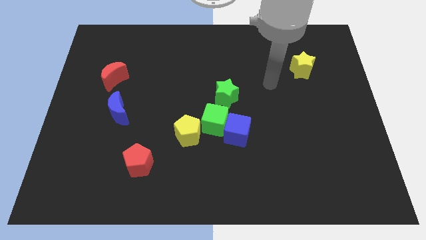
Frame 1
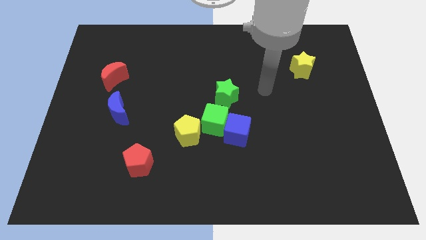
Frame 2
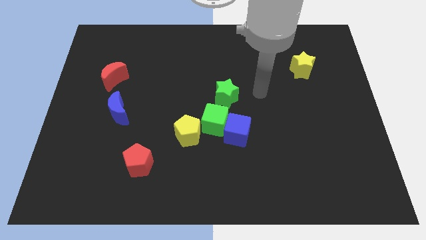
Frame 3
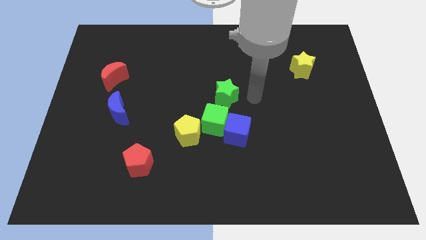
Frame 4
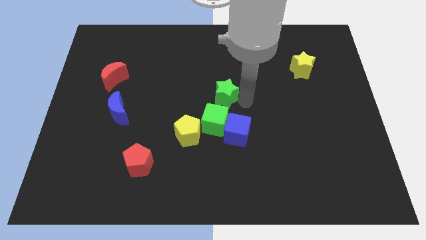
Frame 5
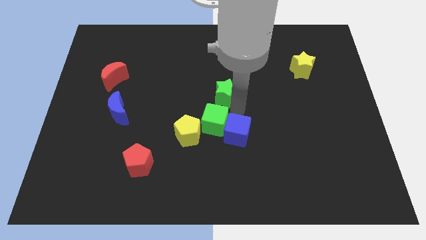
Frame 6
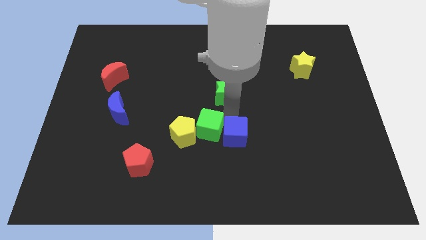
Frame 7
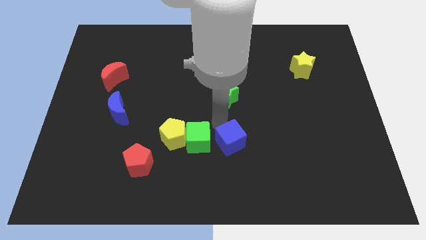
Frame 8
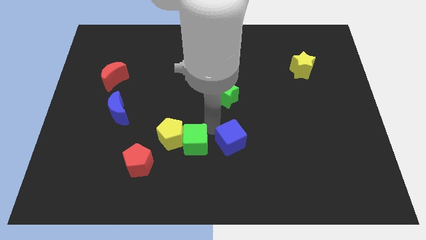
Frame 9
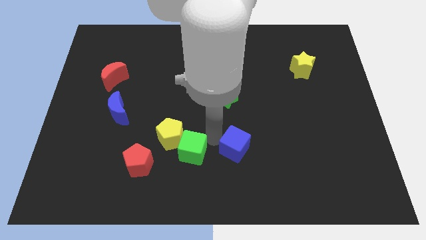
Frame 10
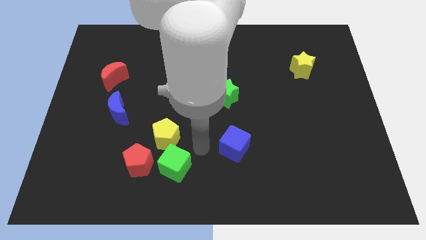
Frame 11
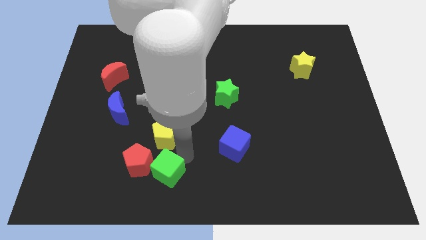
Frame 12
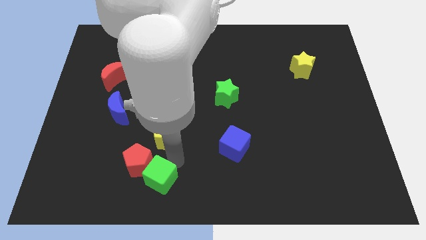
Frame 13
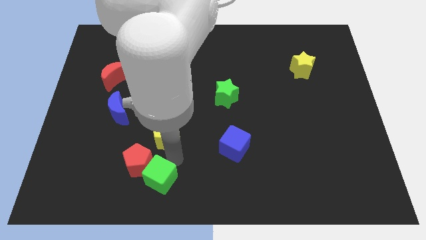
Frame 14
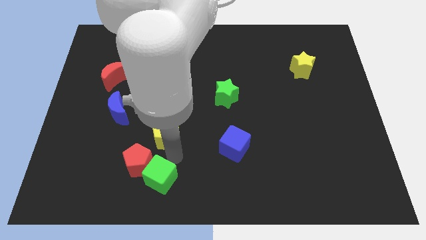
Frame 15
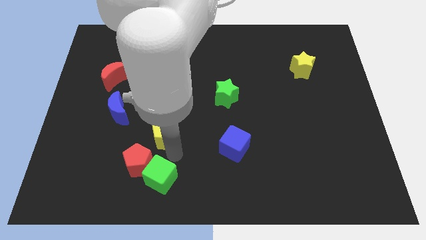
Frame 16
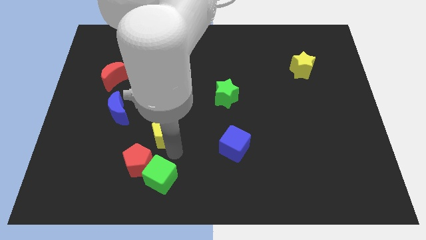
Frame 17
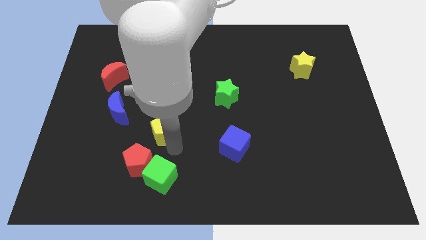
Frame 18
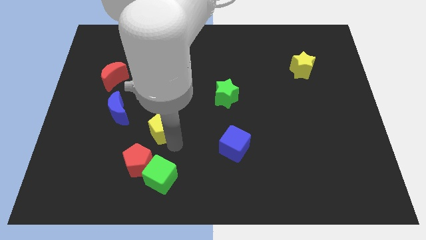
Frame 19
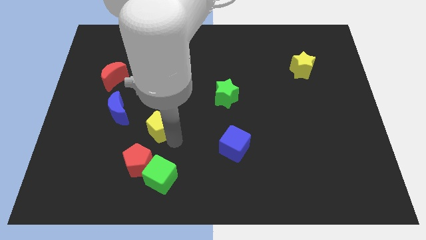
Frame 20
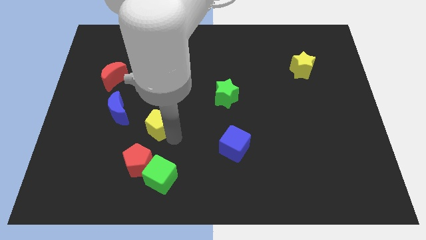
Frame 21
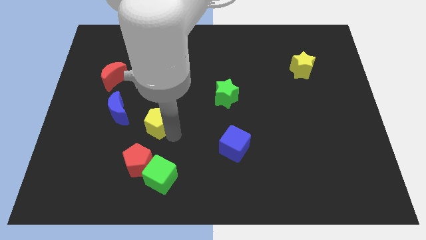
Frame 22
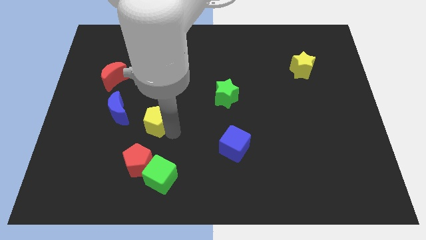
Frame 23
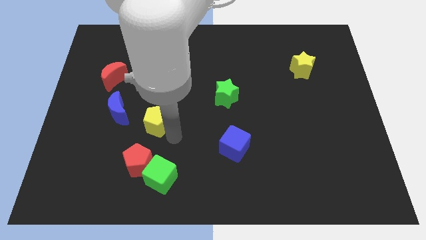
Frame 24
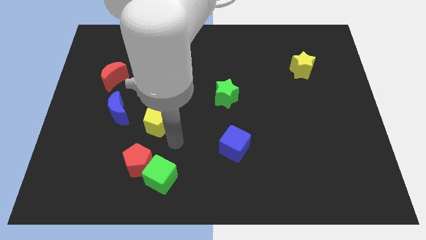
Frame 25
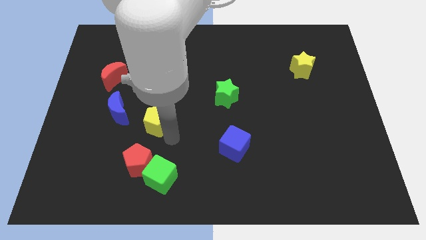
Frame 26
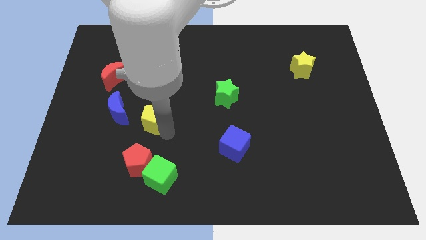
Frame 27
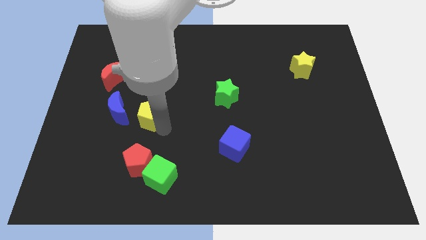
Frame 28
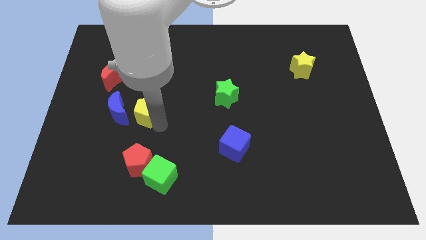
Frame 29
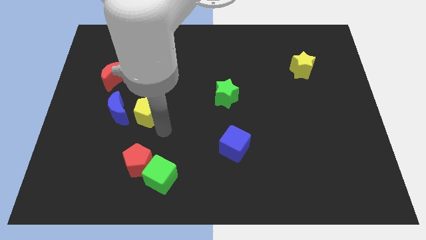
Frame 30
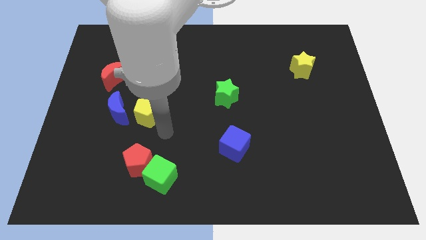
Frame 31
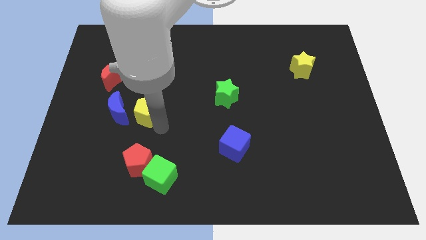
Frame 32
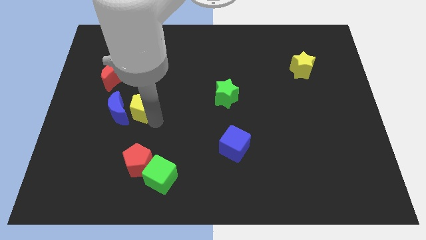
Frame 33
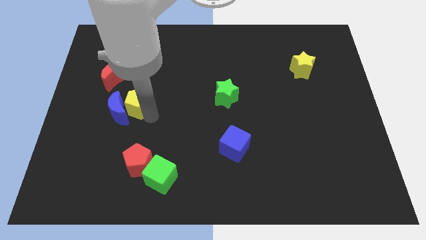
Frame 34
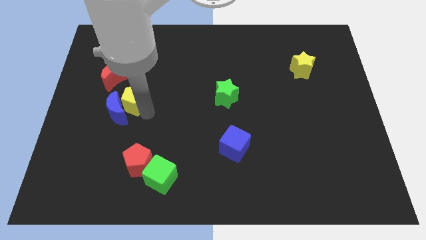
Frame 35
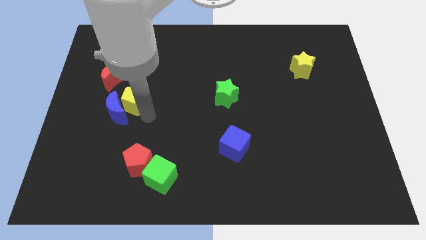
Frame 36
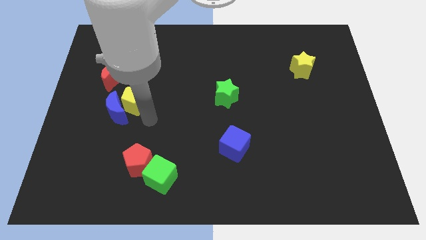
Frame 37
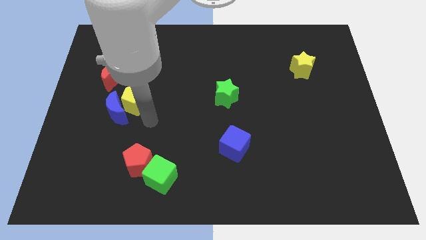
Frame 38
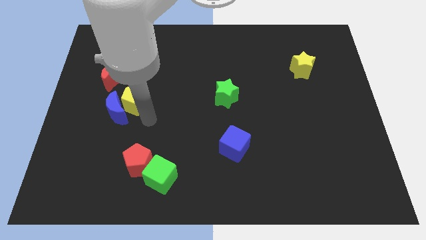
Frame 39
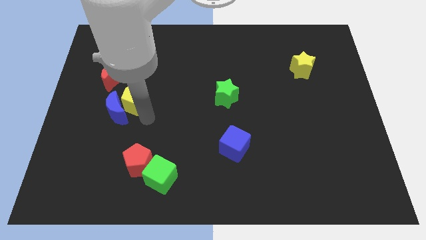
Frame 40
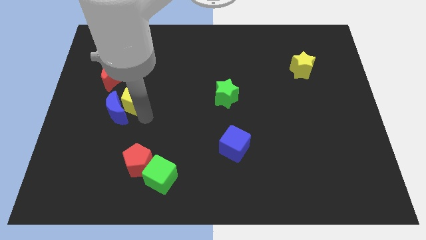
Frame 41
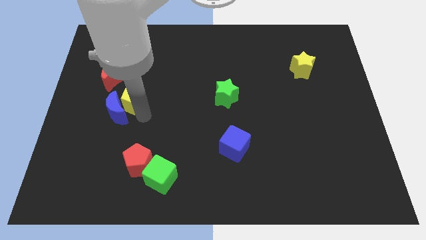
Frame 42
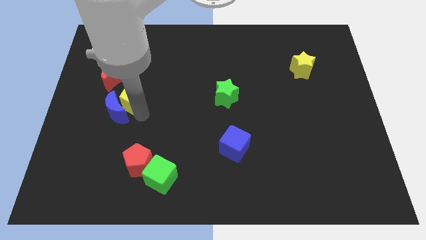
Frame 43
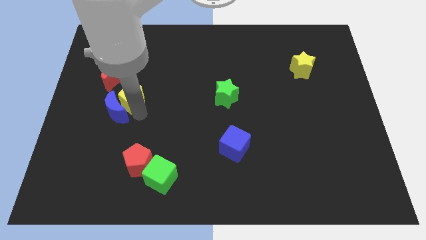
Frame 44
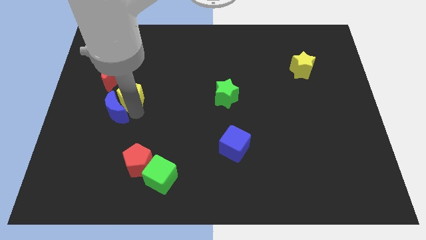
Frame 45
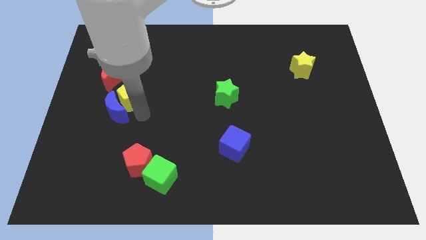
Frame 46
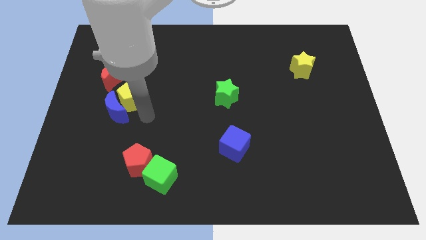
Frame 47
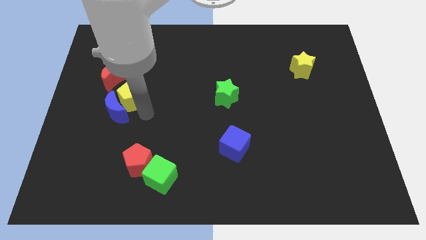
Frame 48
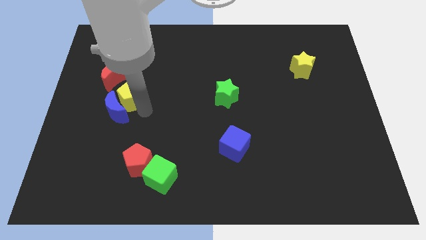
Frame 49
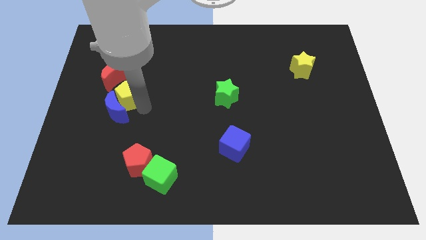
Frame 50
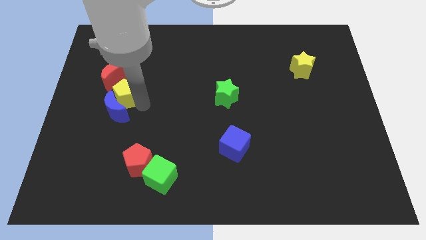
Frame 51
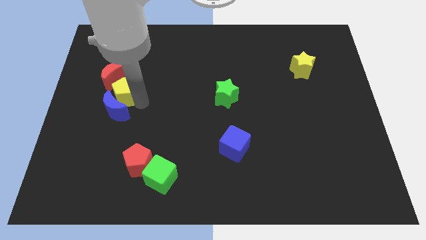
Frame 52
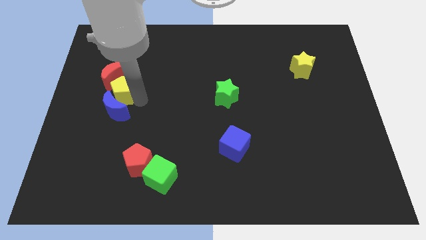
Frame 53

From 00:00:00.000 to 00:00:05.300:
put the yellow pentagon towards the red moon
